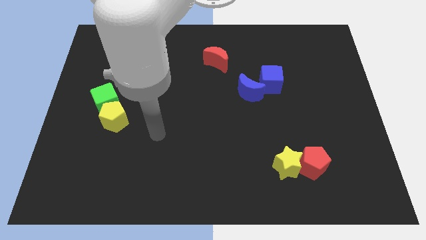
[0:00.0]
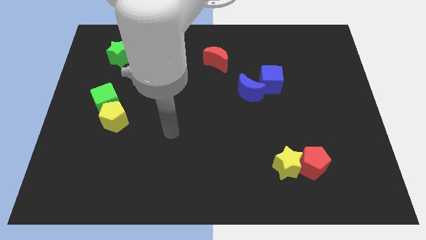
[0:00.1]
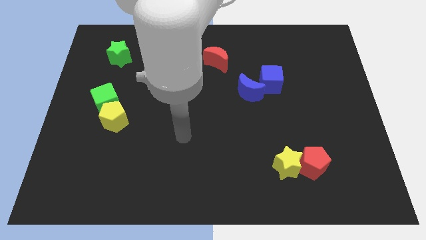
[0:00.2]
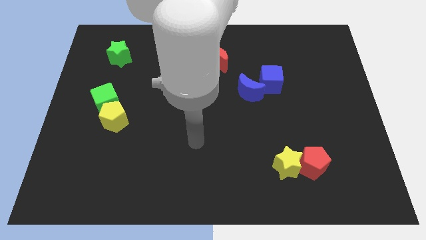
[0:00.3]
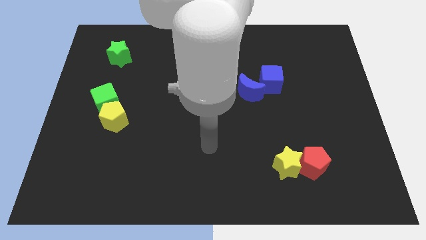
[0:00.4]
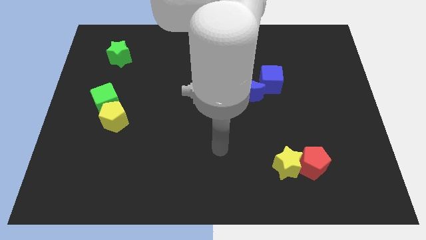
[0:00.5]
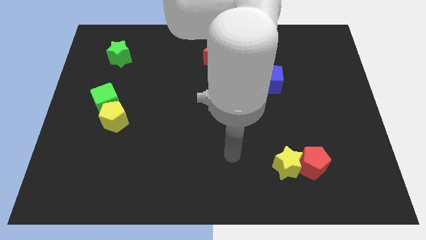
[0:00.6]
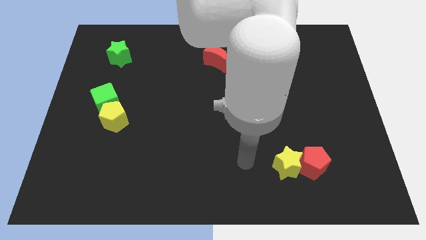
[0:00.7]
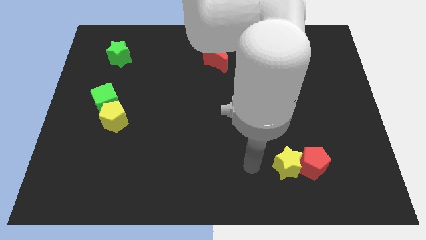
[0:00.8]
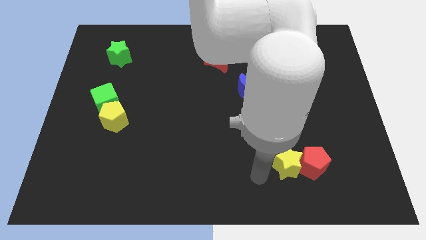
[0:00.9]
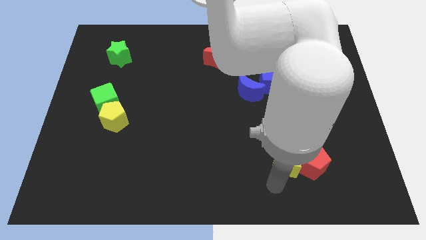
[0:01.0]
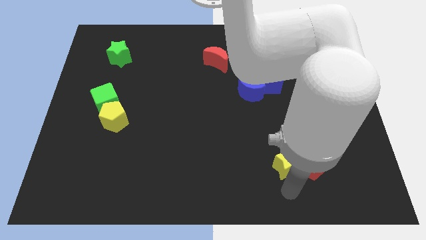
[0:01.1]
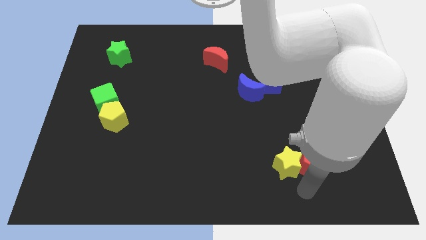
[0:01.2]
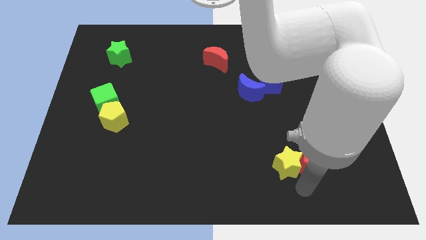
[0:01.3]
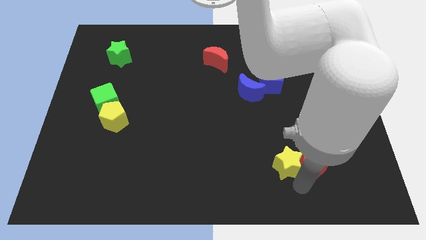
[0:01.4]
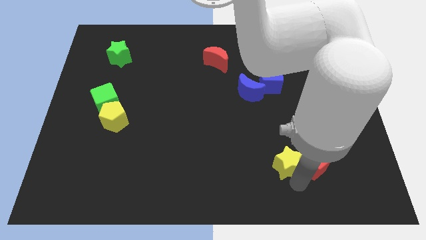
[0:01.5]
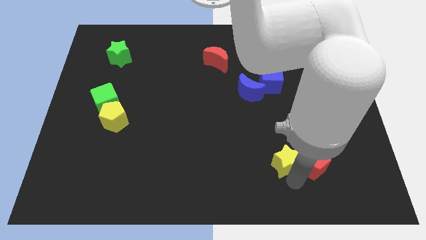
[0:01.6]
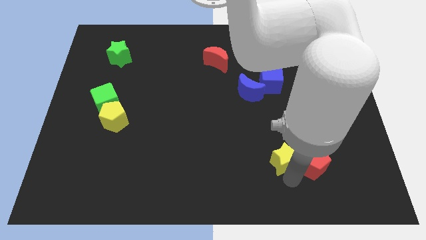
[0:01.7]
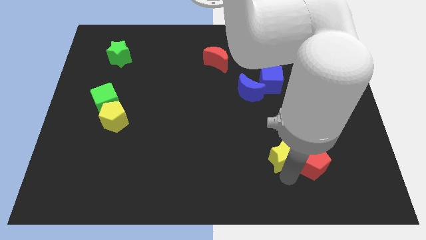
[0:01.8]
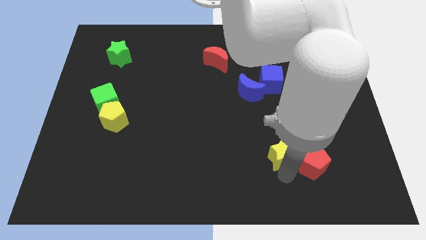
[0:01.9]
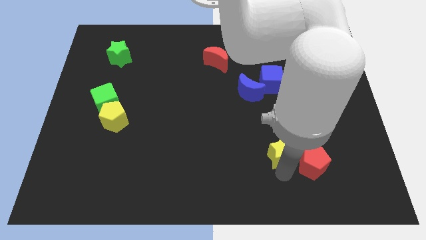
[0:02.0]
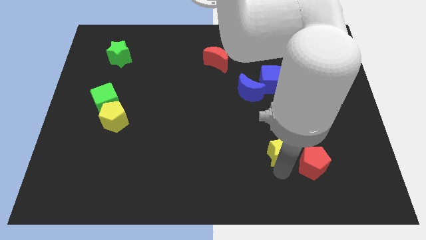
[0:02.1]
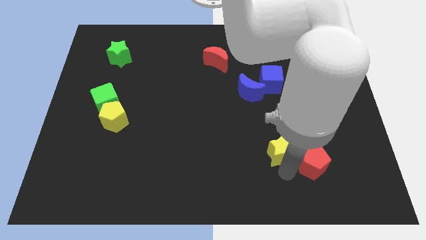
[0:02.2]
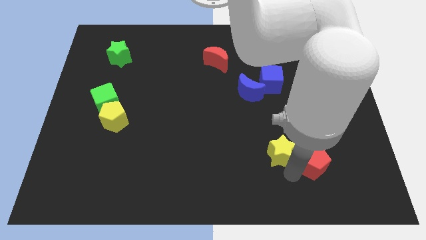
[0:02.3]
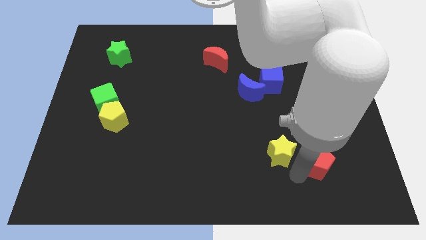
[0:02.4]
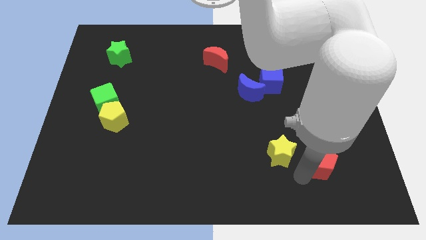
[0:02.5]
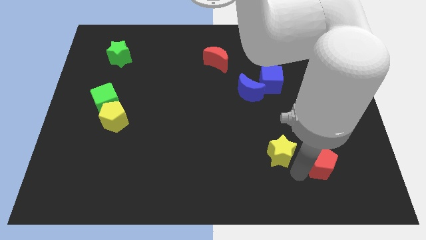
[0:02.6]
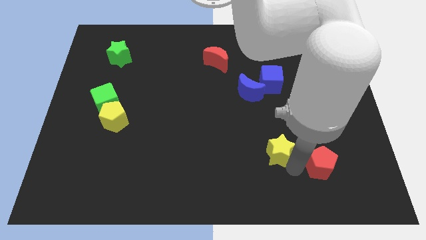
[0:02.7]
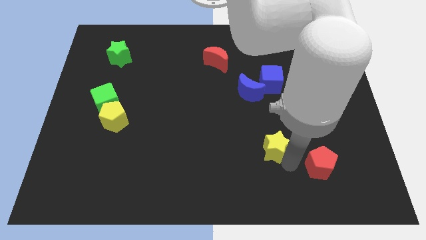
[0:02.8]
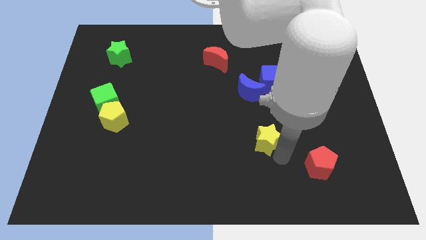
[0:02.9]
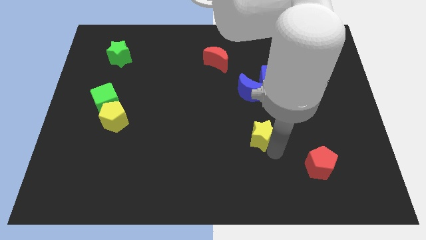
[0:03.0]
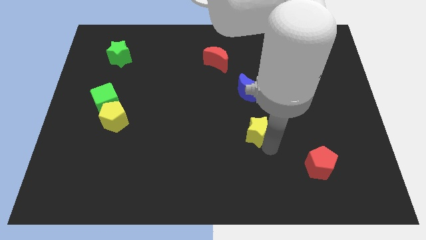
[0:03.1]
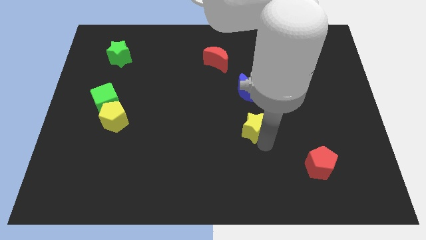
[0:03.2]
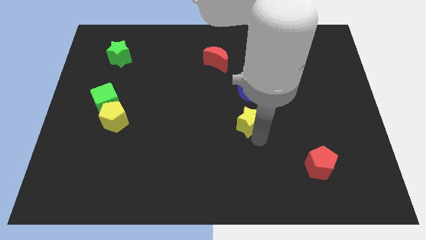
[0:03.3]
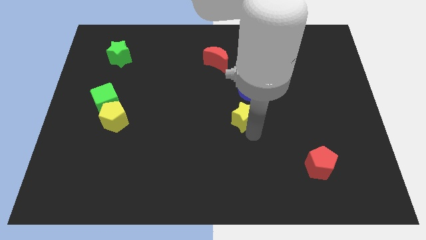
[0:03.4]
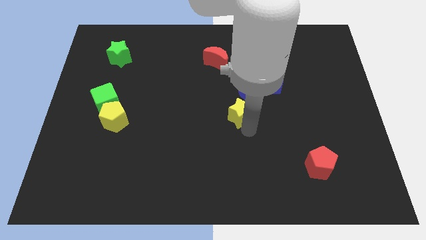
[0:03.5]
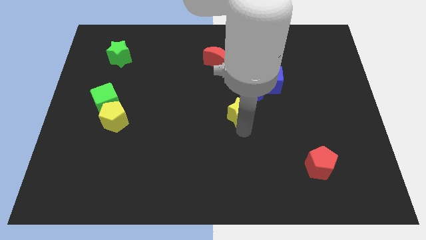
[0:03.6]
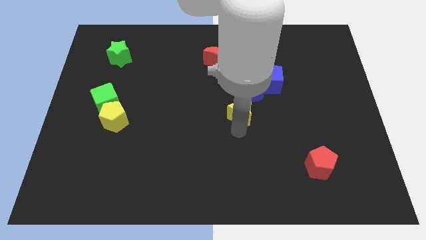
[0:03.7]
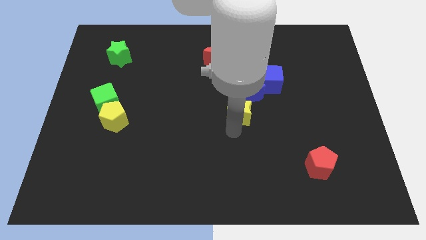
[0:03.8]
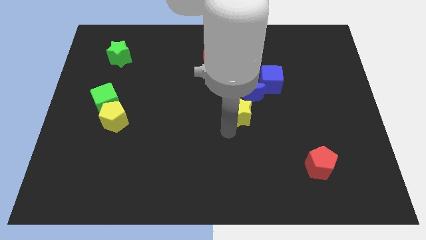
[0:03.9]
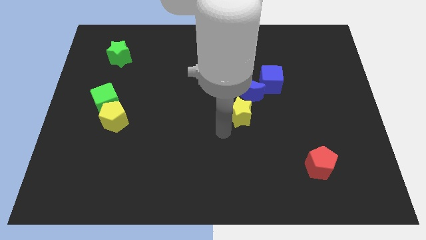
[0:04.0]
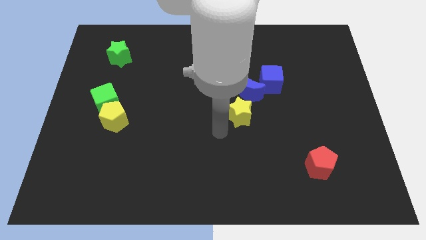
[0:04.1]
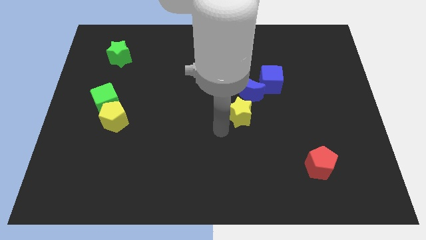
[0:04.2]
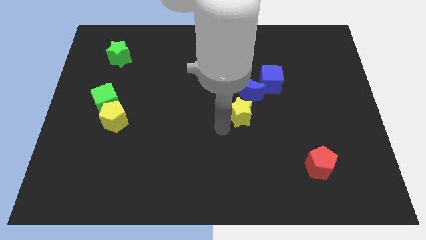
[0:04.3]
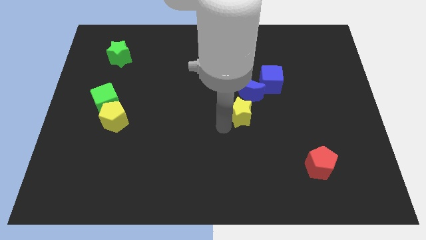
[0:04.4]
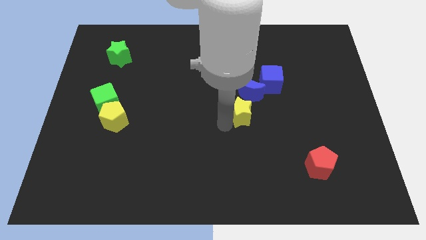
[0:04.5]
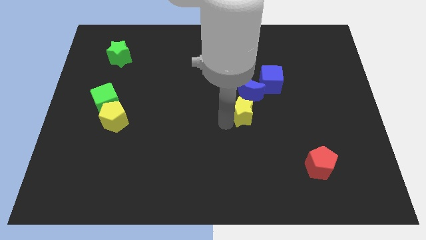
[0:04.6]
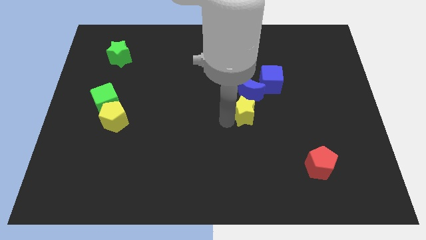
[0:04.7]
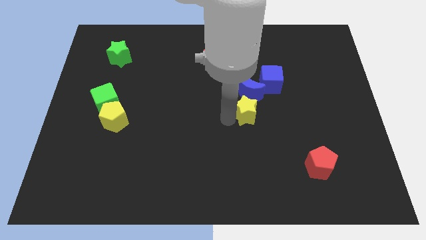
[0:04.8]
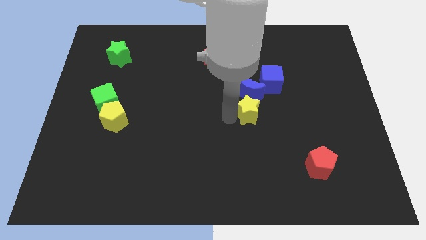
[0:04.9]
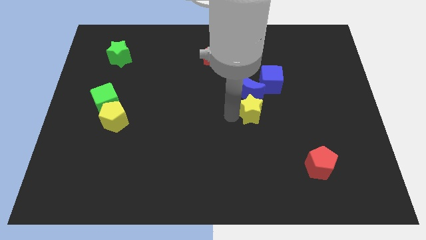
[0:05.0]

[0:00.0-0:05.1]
put the yellow star close to the blue moon

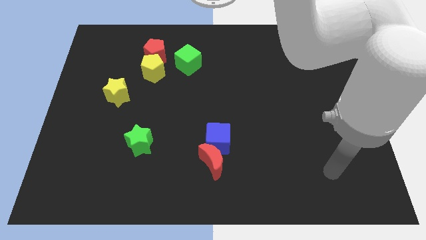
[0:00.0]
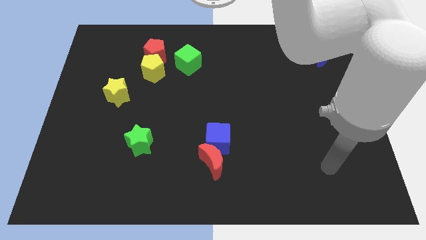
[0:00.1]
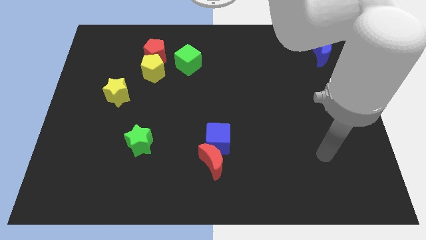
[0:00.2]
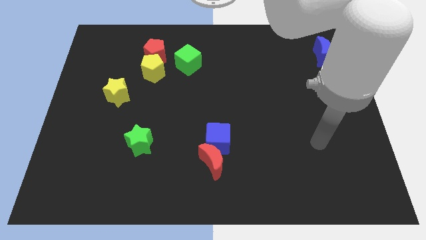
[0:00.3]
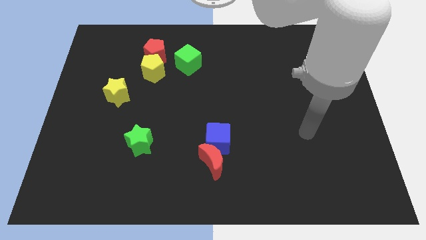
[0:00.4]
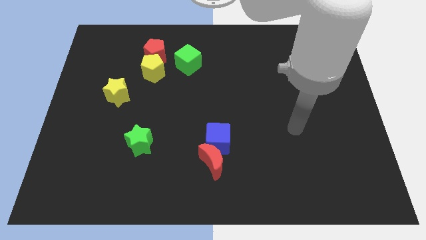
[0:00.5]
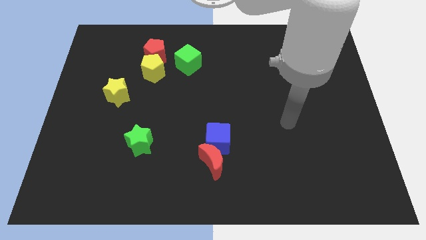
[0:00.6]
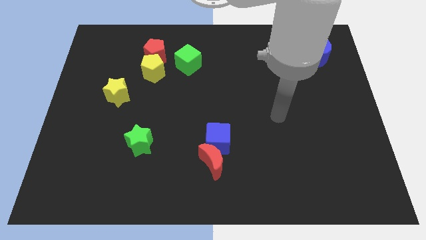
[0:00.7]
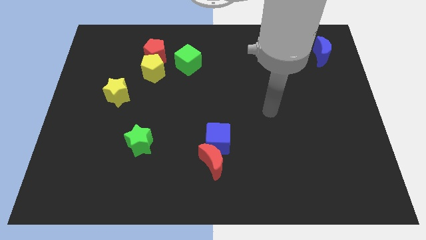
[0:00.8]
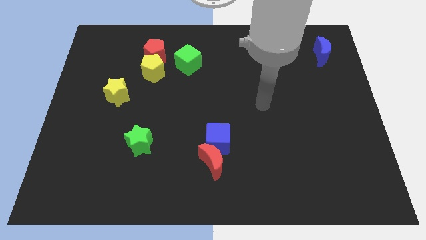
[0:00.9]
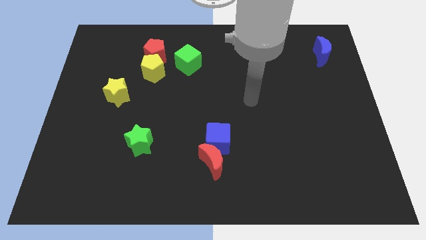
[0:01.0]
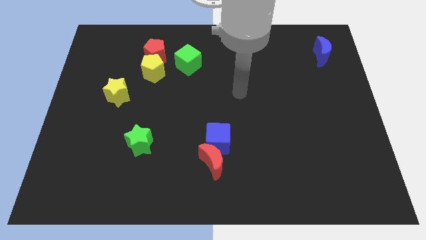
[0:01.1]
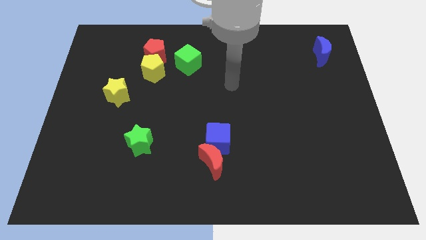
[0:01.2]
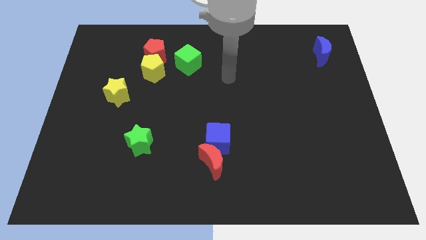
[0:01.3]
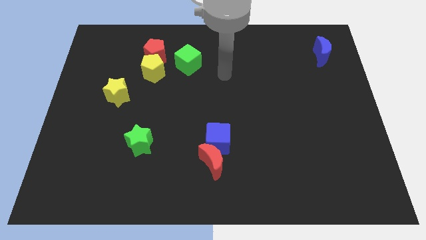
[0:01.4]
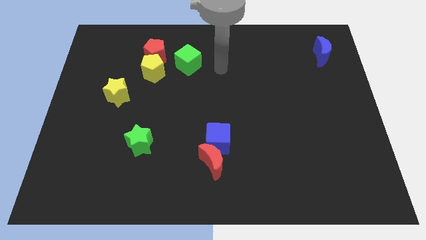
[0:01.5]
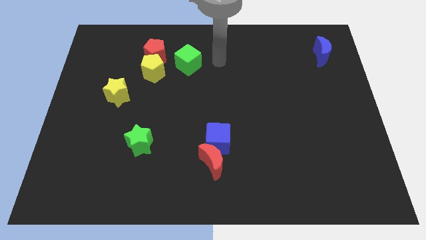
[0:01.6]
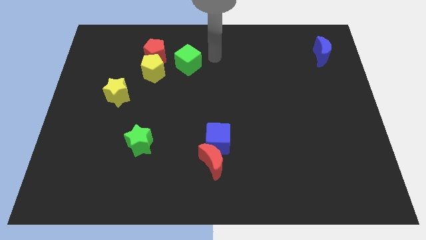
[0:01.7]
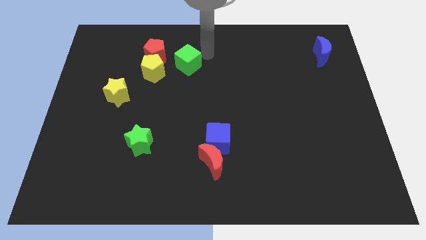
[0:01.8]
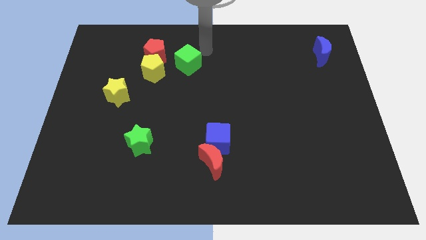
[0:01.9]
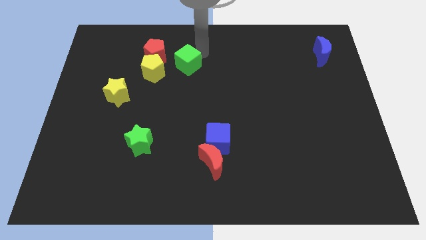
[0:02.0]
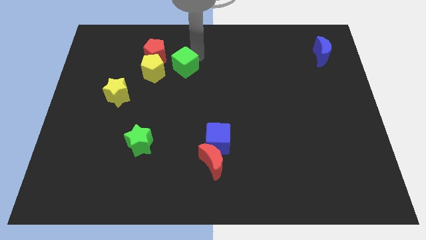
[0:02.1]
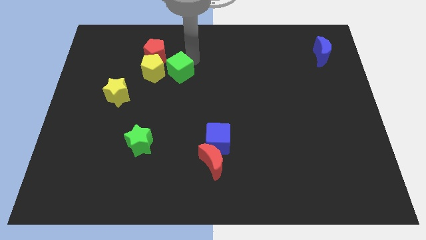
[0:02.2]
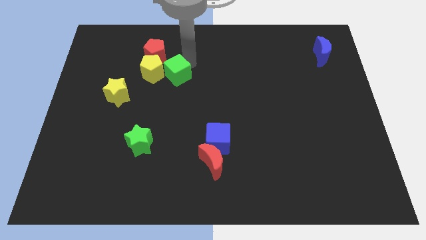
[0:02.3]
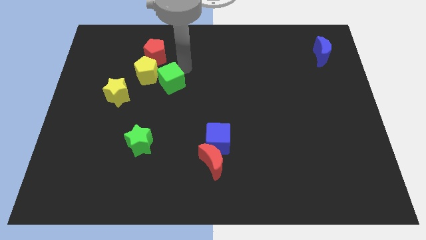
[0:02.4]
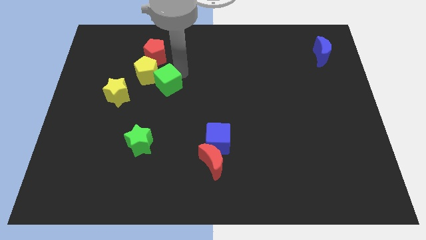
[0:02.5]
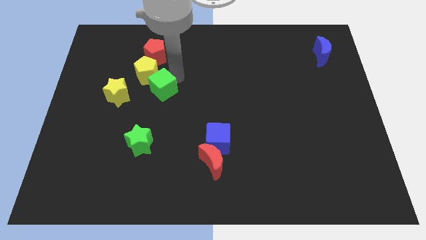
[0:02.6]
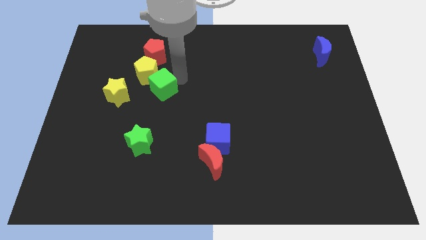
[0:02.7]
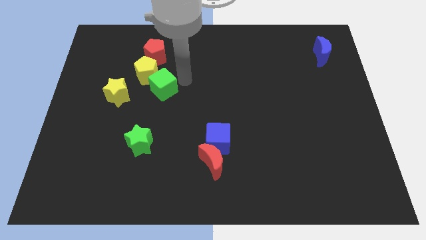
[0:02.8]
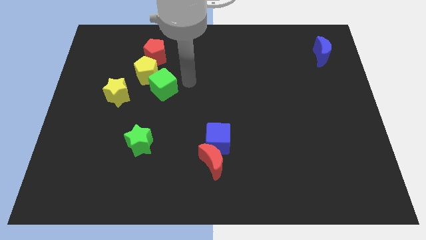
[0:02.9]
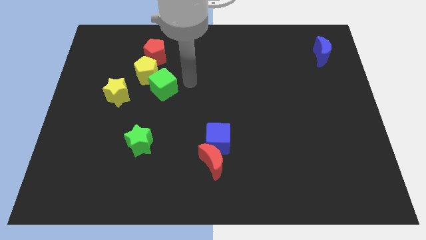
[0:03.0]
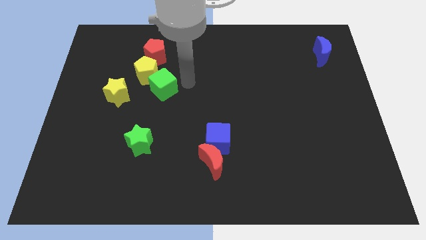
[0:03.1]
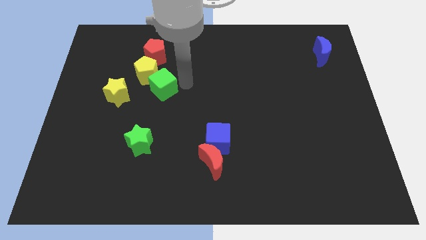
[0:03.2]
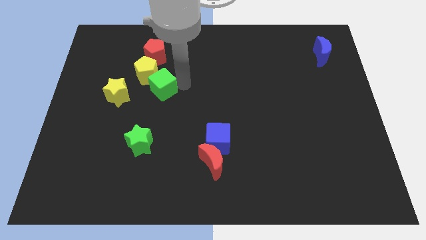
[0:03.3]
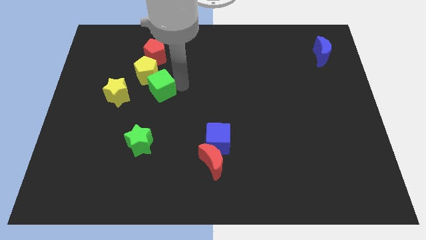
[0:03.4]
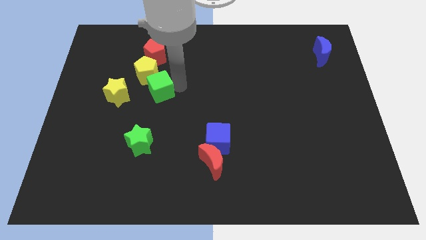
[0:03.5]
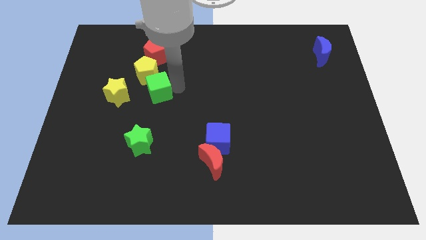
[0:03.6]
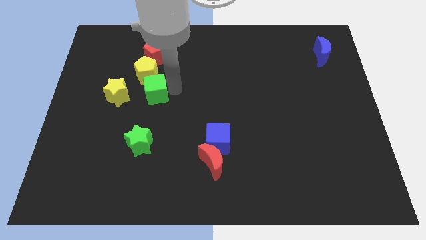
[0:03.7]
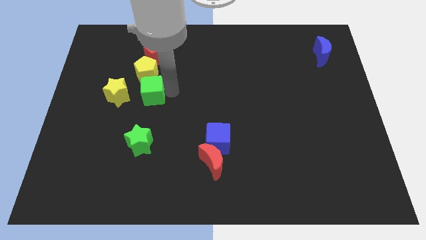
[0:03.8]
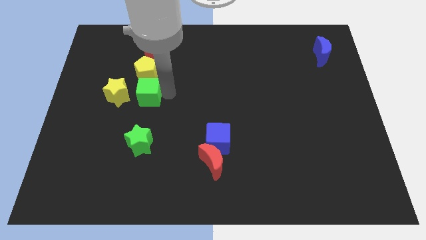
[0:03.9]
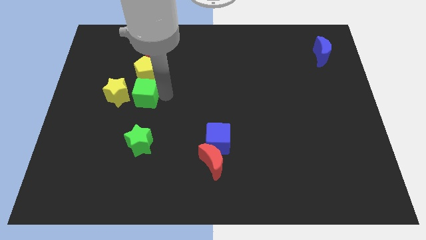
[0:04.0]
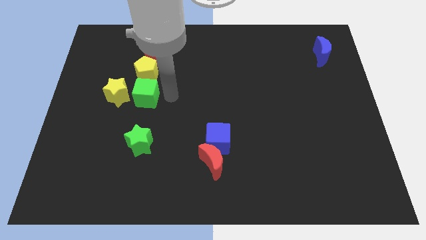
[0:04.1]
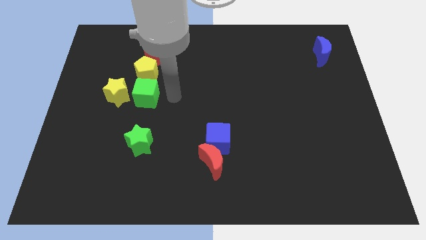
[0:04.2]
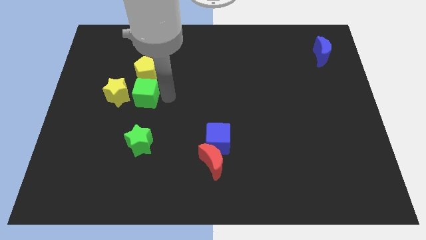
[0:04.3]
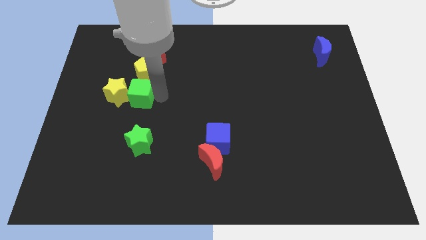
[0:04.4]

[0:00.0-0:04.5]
slide the green cube next to the yellow star
